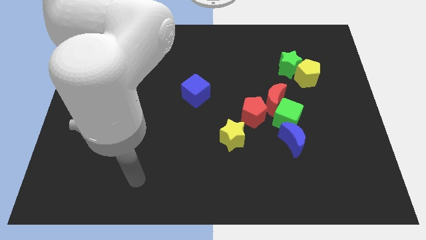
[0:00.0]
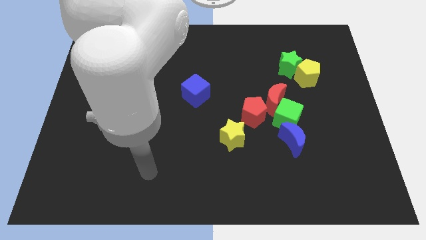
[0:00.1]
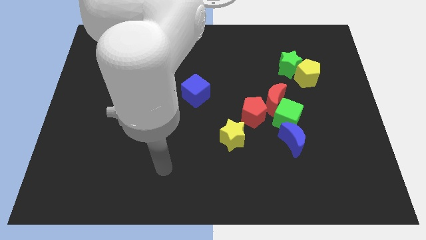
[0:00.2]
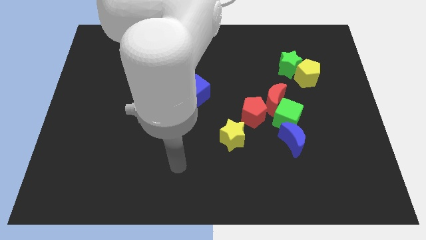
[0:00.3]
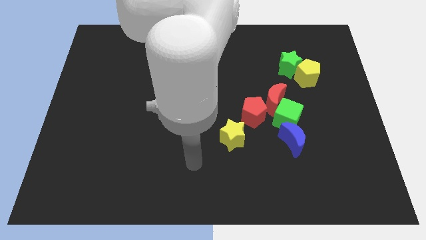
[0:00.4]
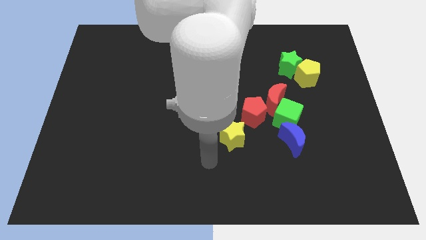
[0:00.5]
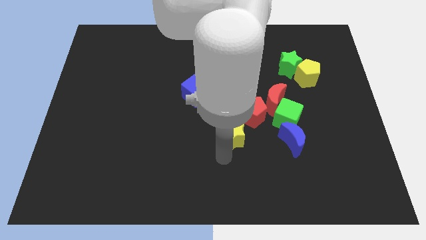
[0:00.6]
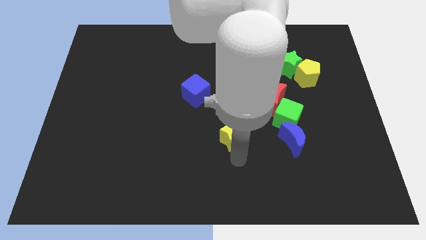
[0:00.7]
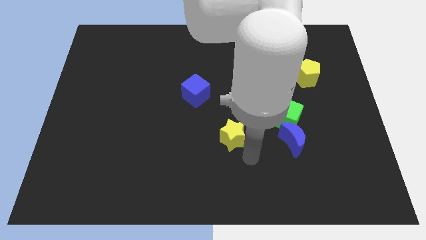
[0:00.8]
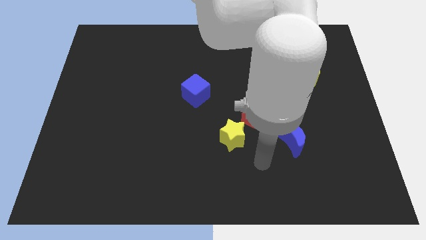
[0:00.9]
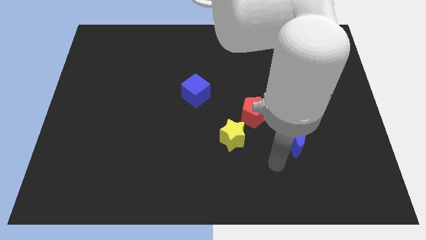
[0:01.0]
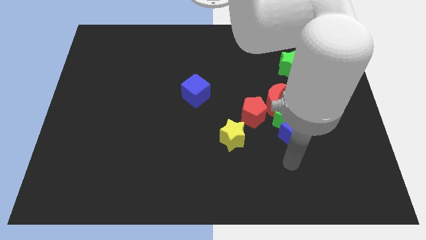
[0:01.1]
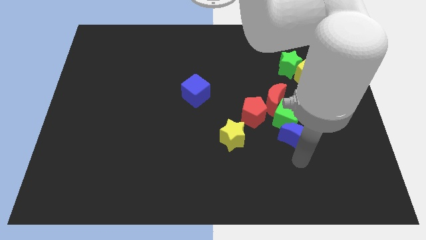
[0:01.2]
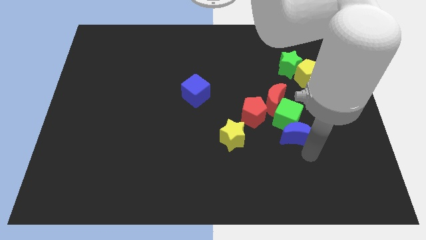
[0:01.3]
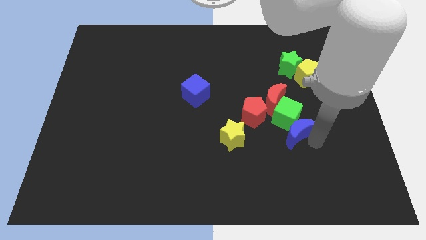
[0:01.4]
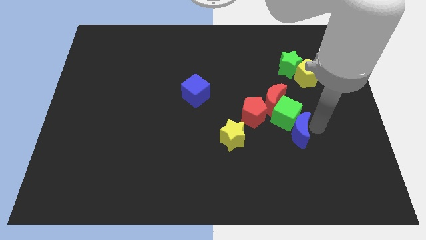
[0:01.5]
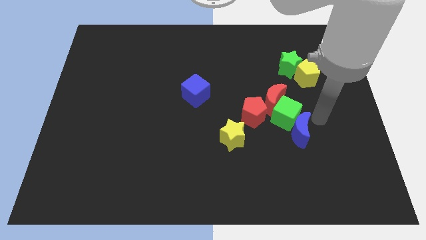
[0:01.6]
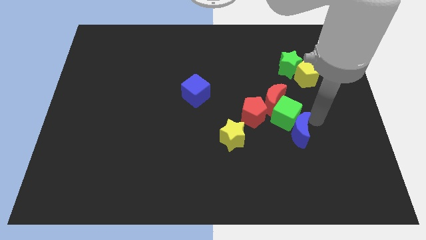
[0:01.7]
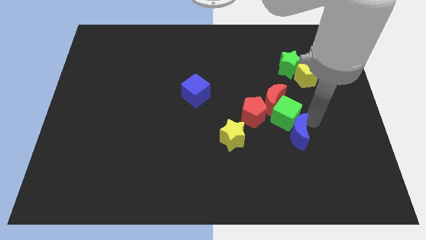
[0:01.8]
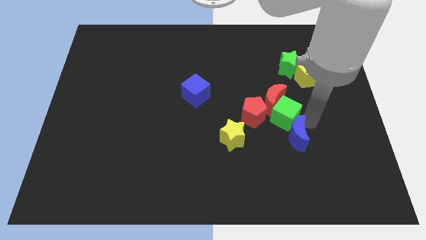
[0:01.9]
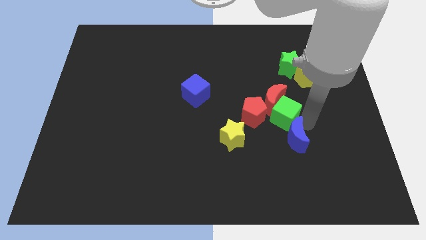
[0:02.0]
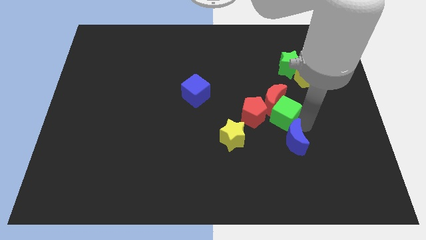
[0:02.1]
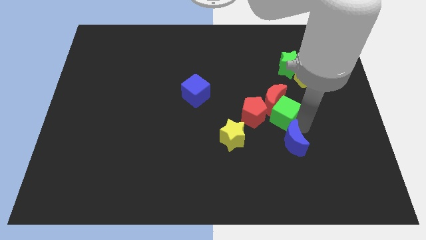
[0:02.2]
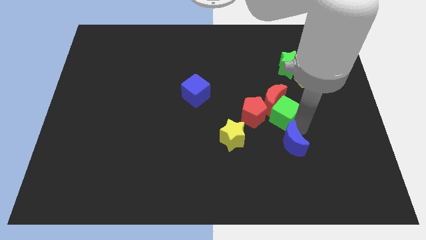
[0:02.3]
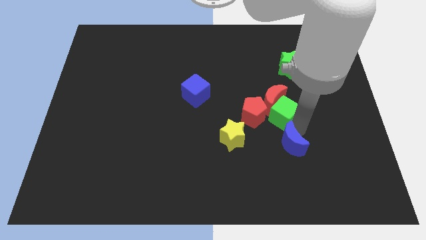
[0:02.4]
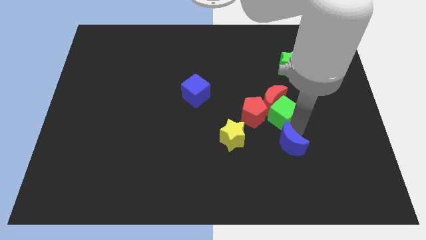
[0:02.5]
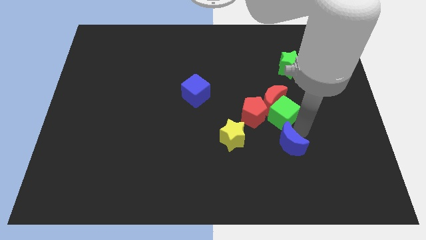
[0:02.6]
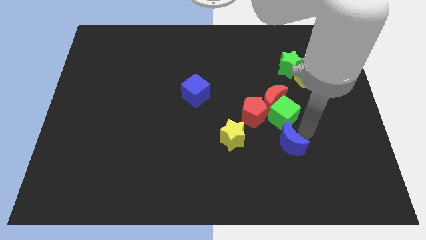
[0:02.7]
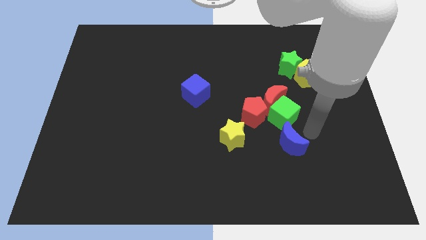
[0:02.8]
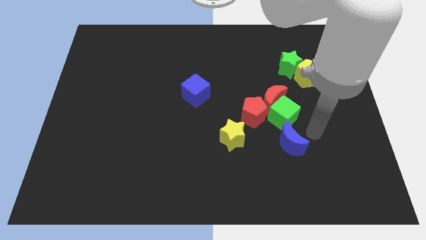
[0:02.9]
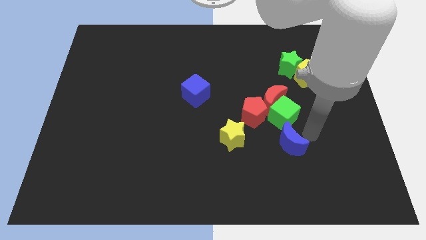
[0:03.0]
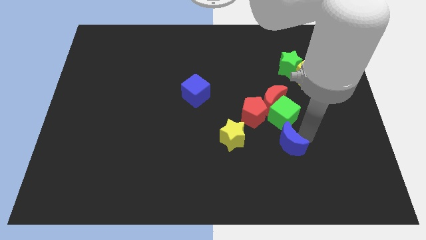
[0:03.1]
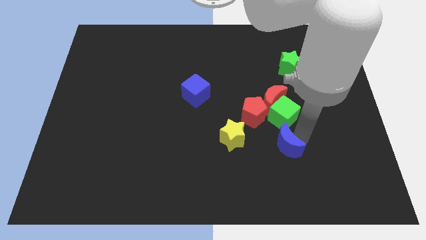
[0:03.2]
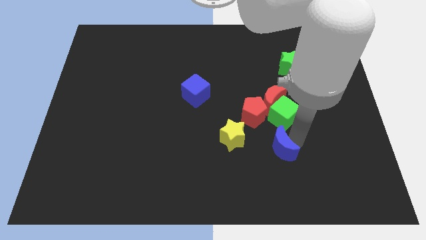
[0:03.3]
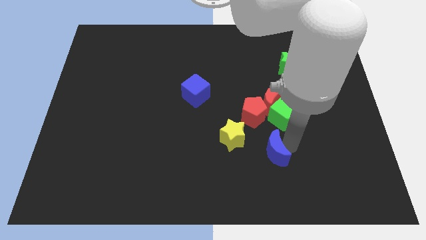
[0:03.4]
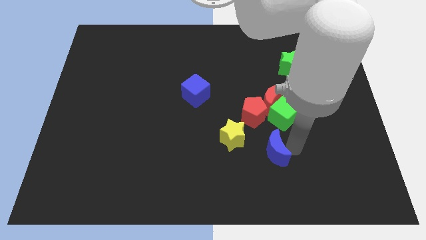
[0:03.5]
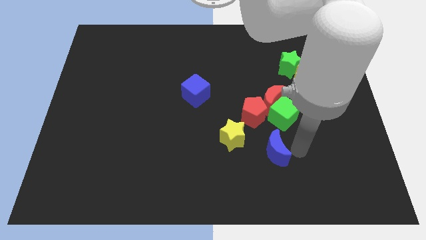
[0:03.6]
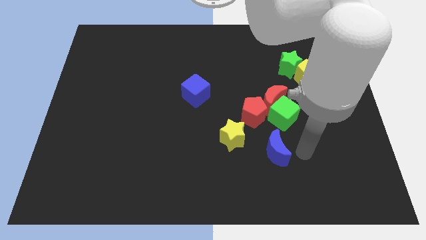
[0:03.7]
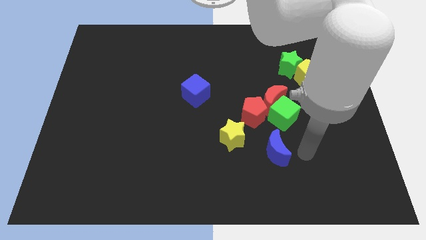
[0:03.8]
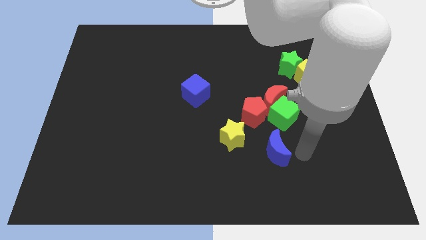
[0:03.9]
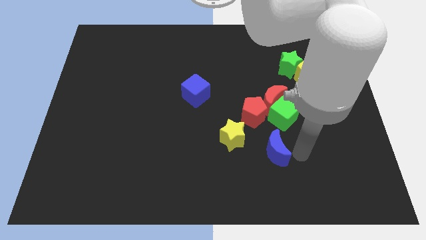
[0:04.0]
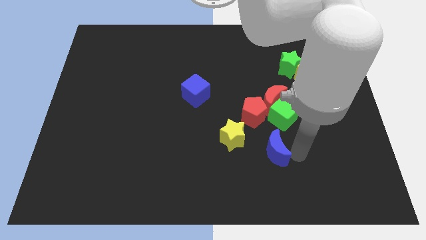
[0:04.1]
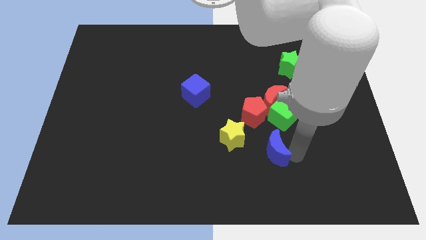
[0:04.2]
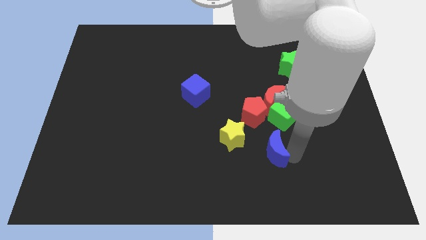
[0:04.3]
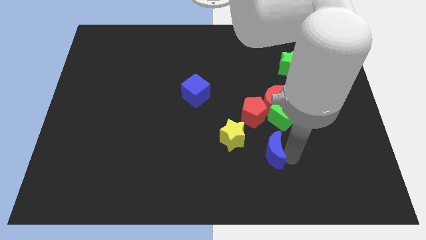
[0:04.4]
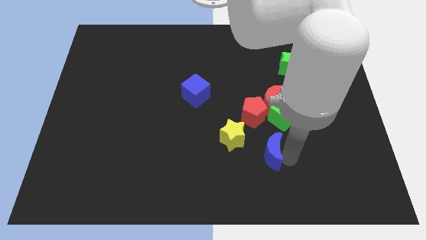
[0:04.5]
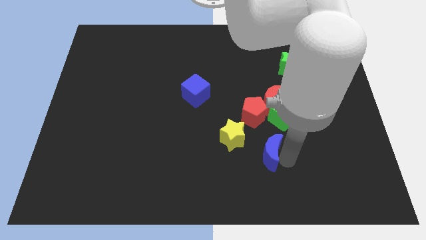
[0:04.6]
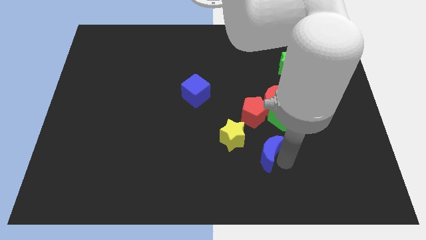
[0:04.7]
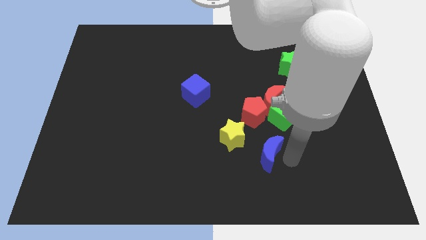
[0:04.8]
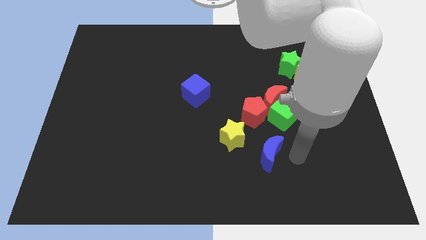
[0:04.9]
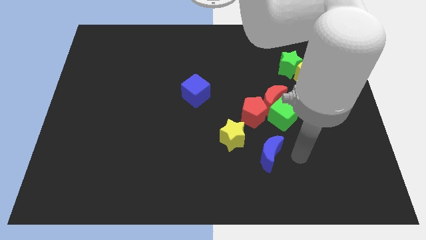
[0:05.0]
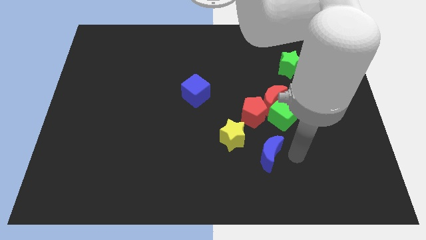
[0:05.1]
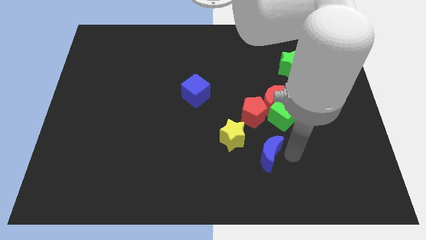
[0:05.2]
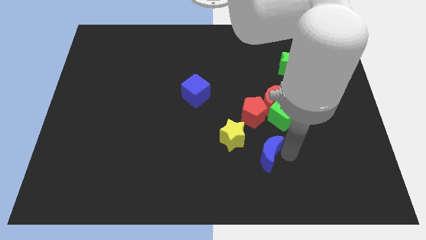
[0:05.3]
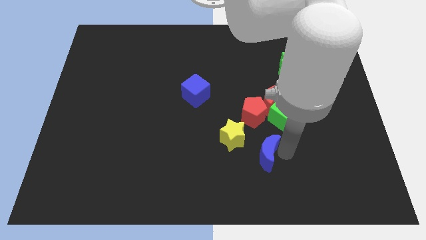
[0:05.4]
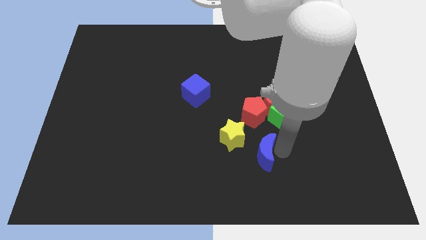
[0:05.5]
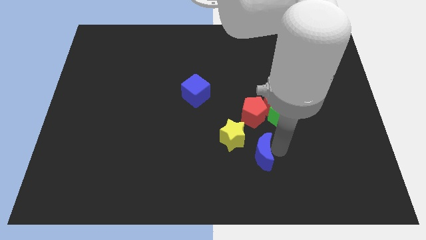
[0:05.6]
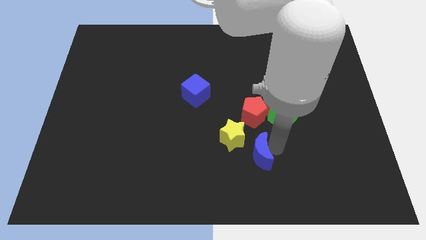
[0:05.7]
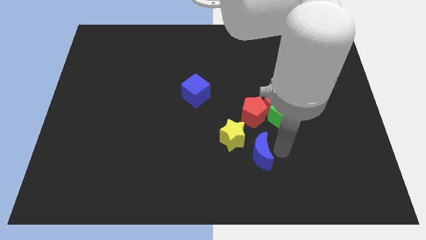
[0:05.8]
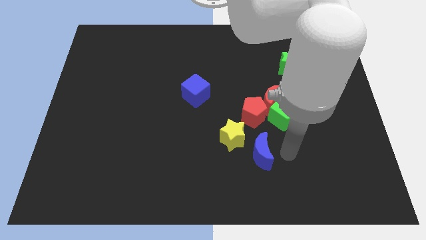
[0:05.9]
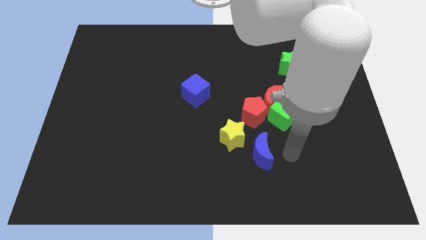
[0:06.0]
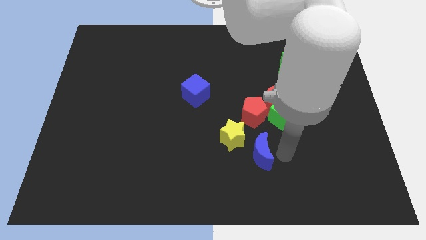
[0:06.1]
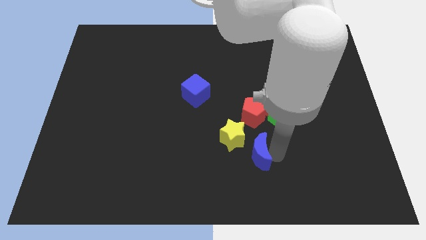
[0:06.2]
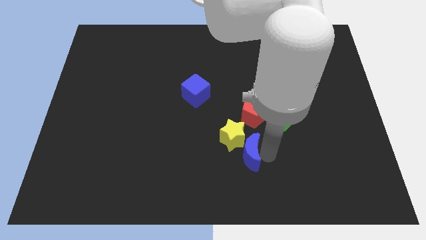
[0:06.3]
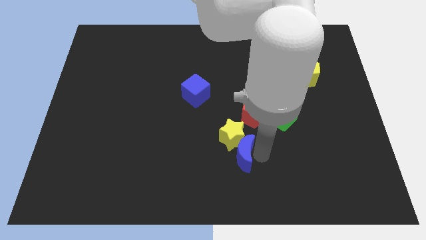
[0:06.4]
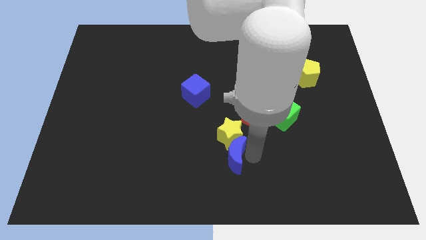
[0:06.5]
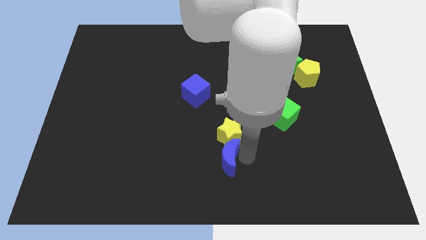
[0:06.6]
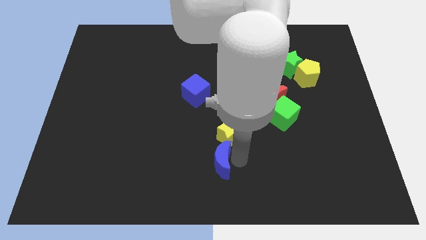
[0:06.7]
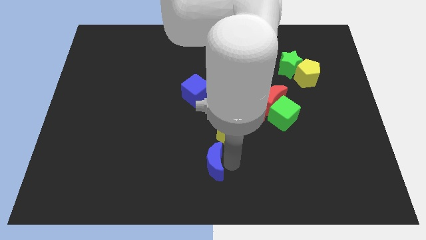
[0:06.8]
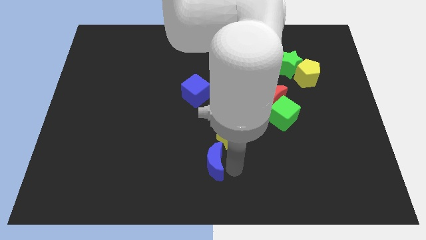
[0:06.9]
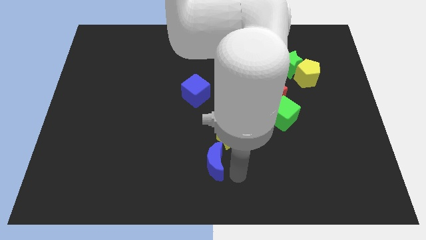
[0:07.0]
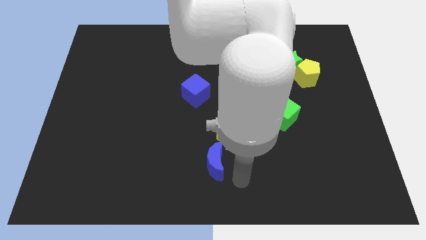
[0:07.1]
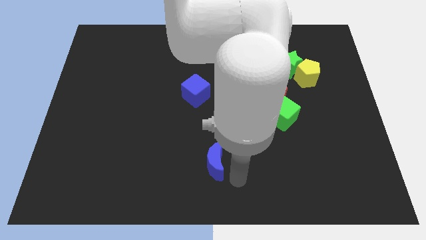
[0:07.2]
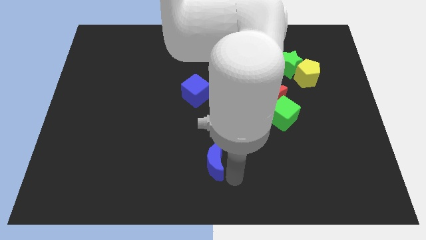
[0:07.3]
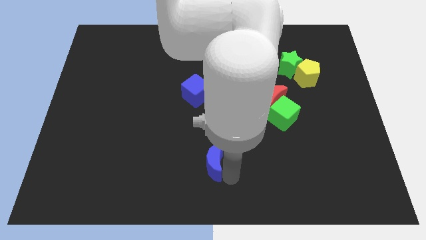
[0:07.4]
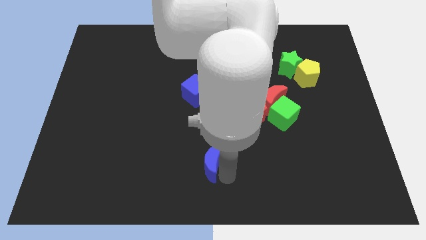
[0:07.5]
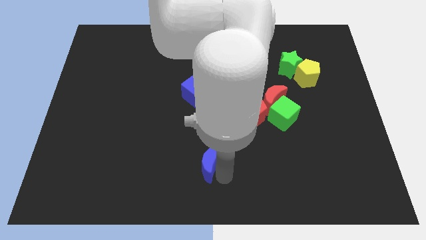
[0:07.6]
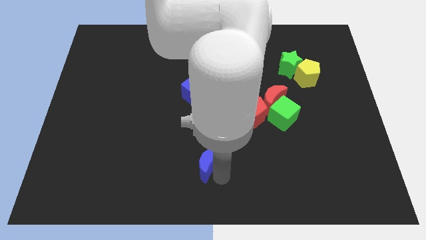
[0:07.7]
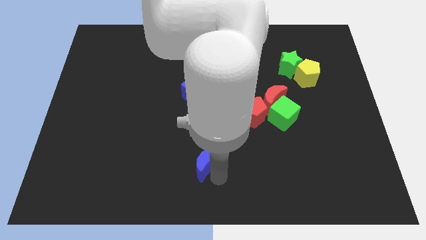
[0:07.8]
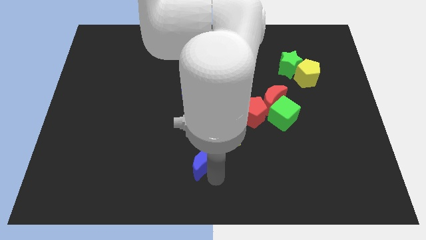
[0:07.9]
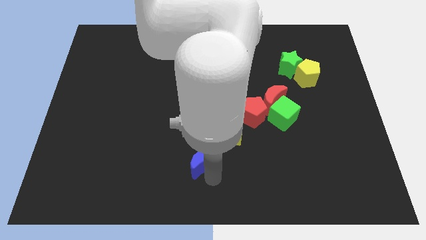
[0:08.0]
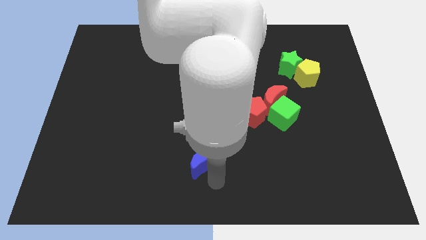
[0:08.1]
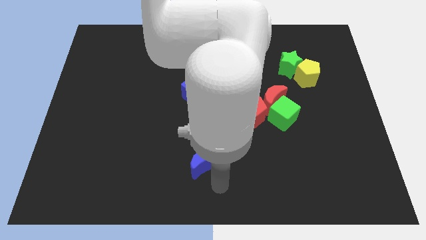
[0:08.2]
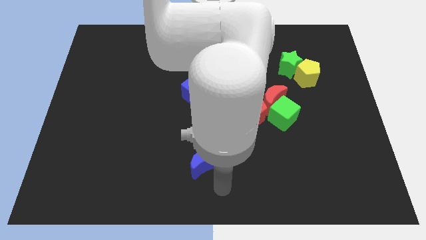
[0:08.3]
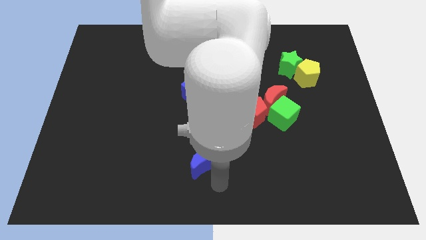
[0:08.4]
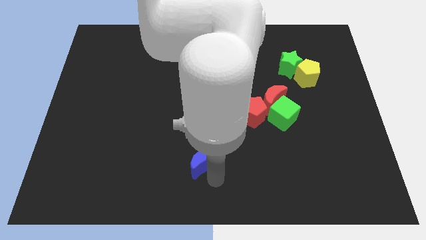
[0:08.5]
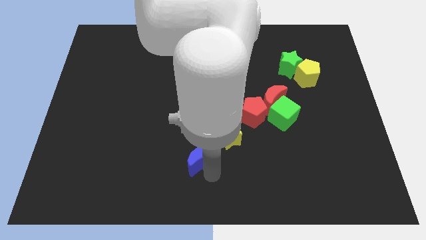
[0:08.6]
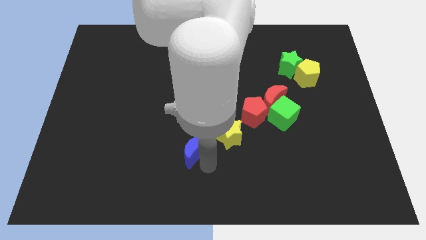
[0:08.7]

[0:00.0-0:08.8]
move the blue moon left
